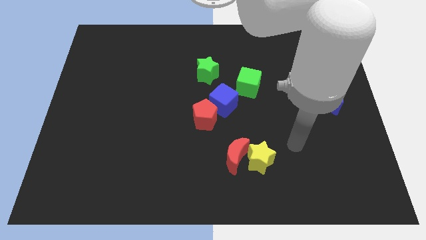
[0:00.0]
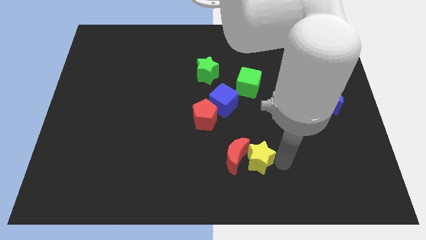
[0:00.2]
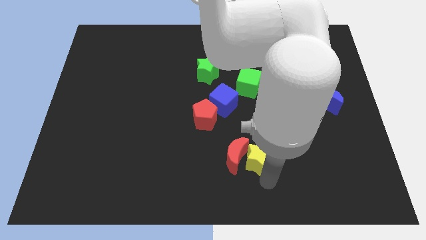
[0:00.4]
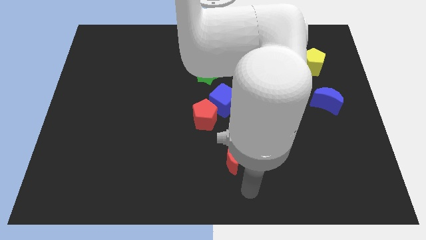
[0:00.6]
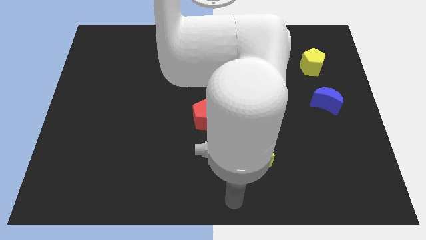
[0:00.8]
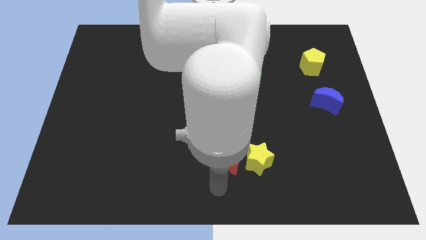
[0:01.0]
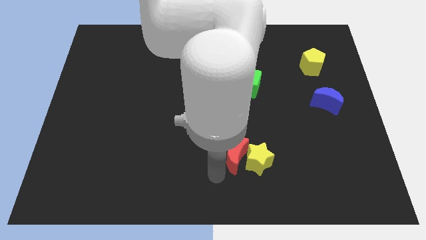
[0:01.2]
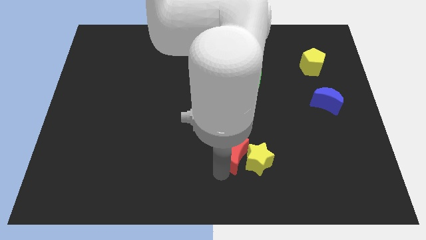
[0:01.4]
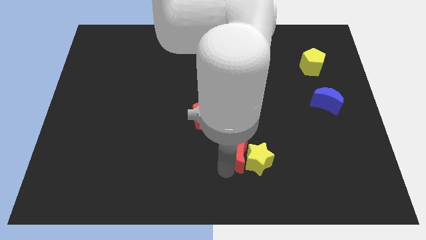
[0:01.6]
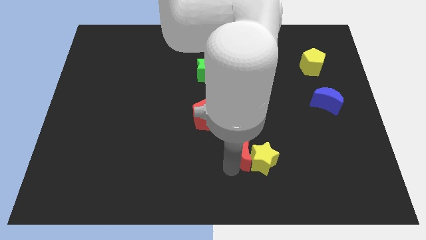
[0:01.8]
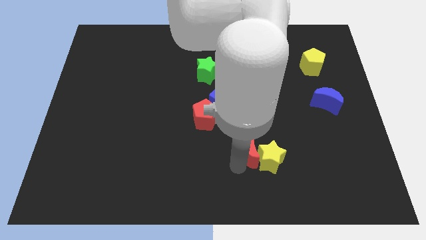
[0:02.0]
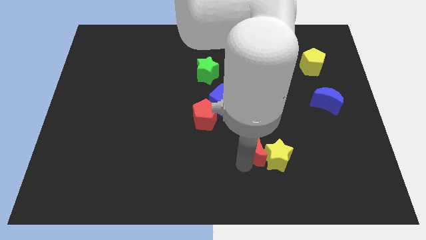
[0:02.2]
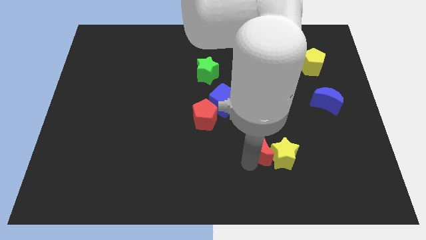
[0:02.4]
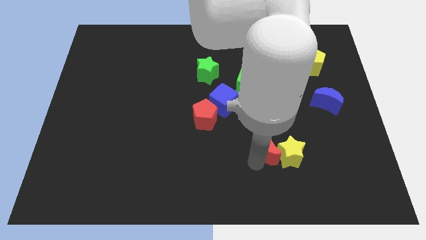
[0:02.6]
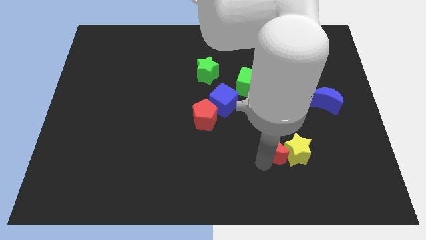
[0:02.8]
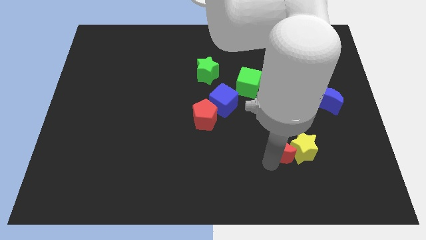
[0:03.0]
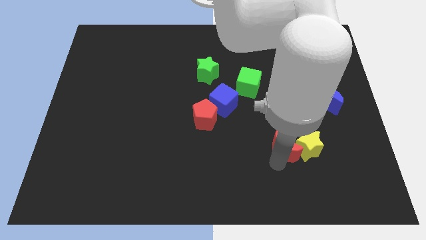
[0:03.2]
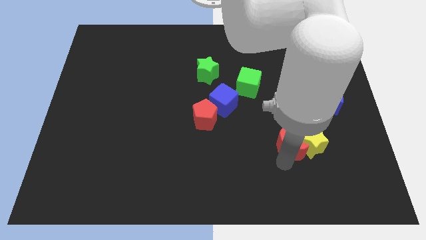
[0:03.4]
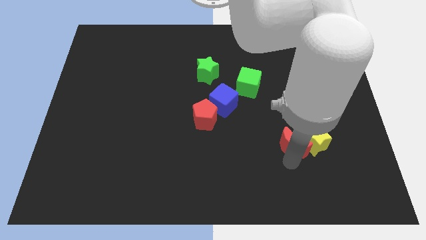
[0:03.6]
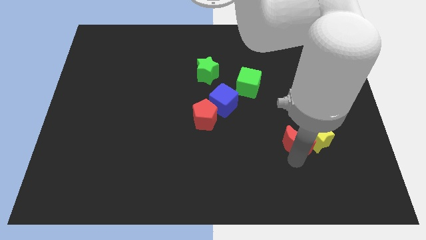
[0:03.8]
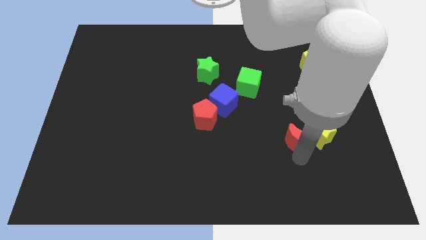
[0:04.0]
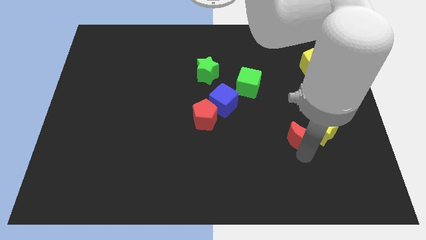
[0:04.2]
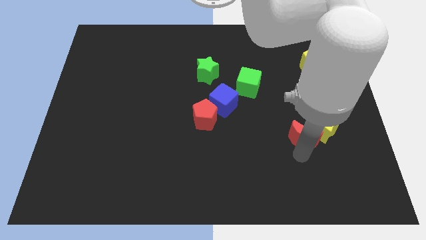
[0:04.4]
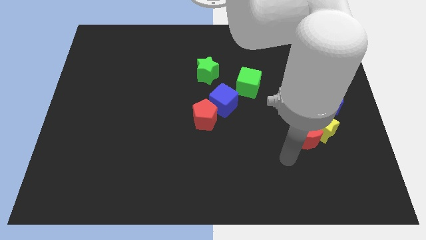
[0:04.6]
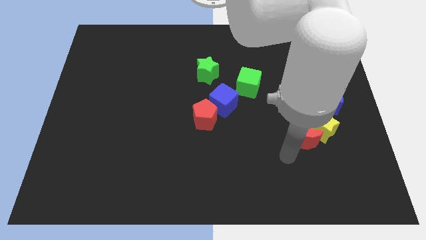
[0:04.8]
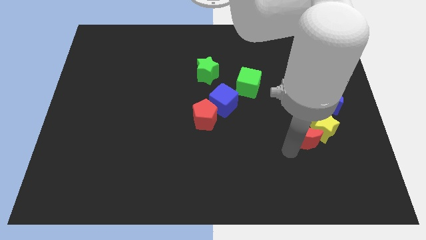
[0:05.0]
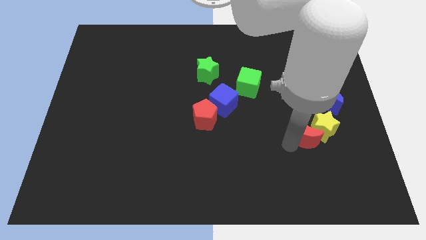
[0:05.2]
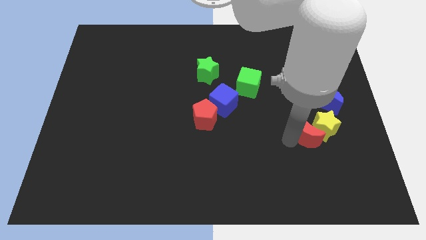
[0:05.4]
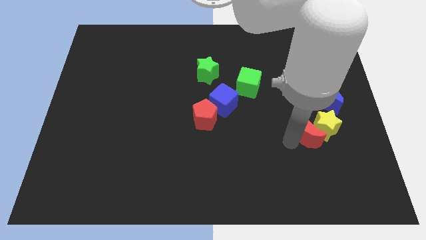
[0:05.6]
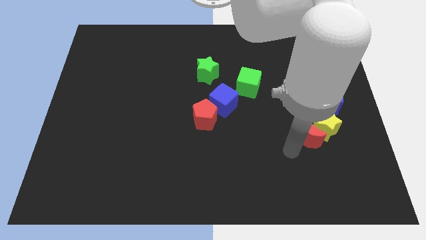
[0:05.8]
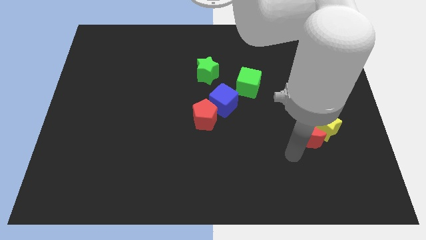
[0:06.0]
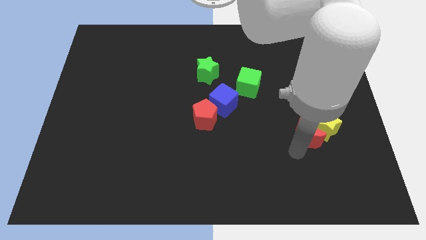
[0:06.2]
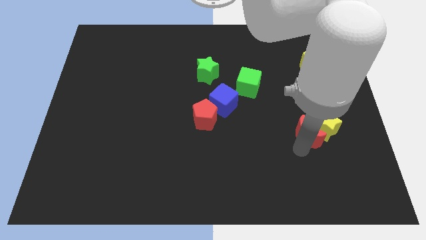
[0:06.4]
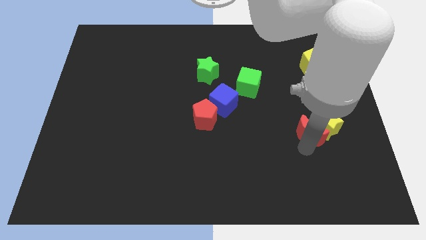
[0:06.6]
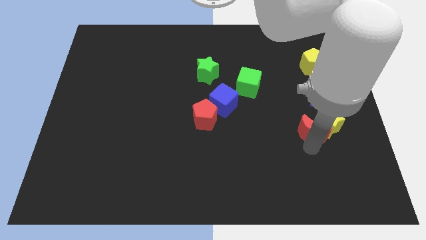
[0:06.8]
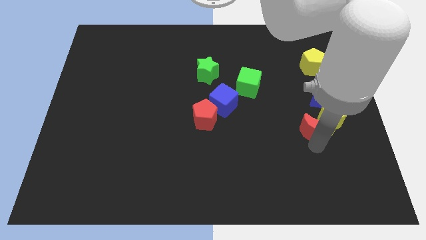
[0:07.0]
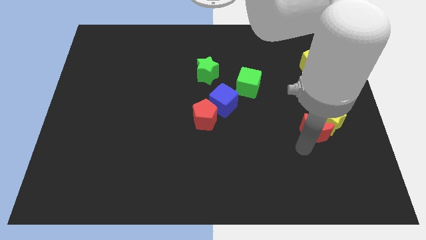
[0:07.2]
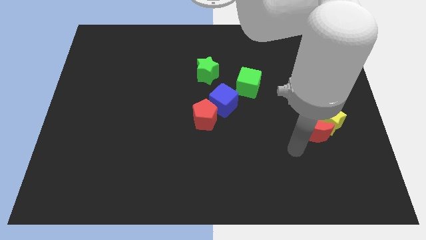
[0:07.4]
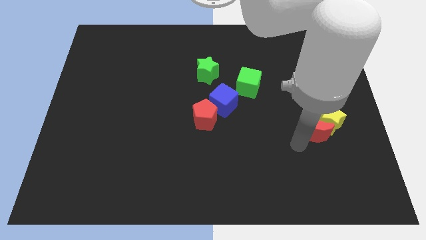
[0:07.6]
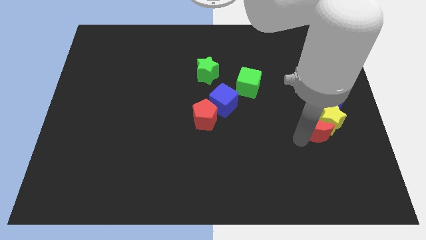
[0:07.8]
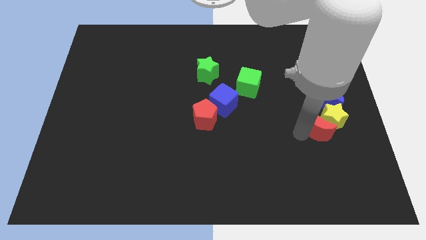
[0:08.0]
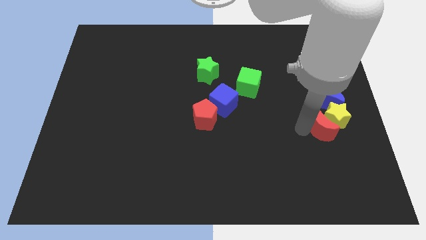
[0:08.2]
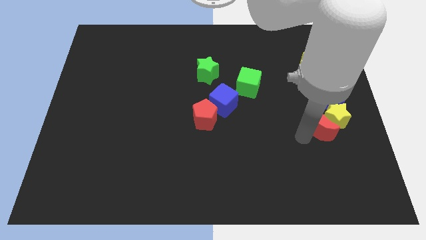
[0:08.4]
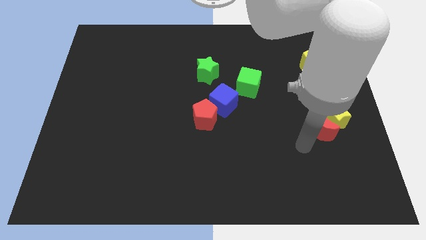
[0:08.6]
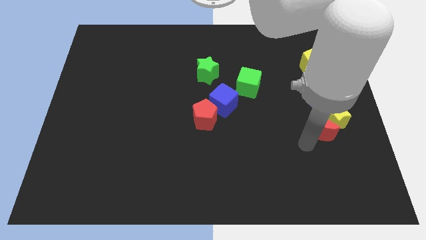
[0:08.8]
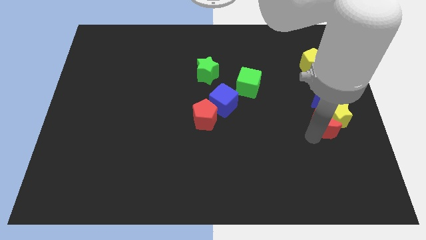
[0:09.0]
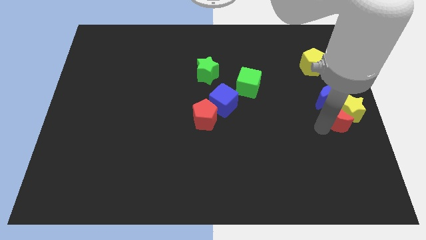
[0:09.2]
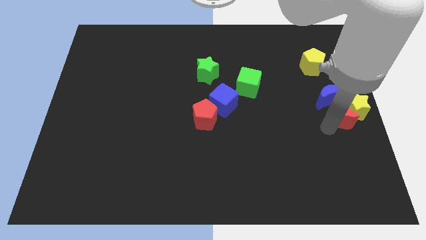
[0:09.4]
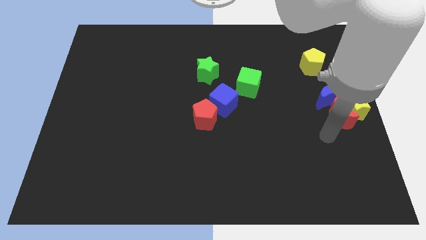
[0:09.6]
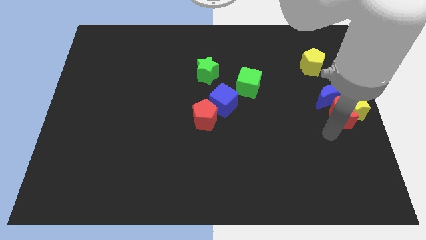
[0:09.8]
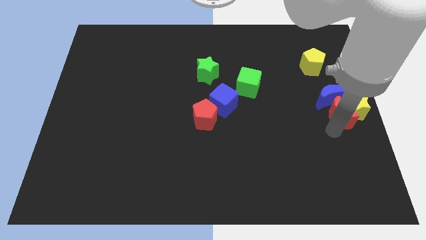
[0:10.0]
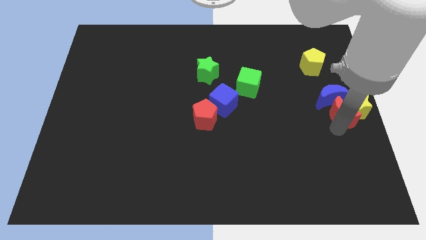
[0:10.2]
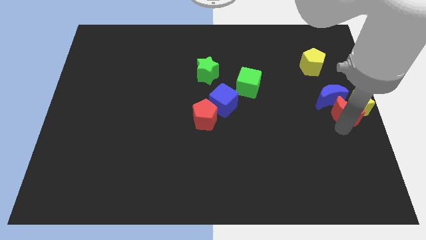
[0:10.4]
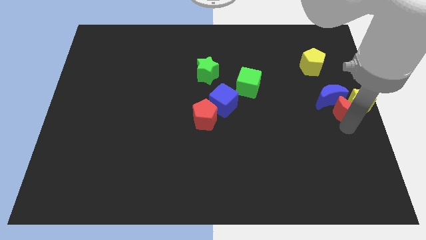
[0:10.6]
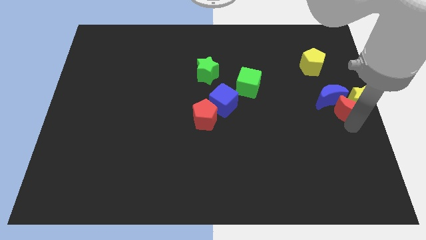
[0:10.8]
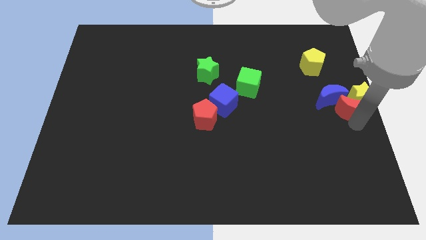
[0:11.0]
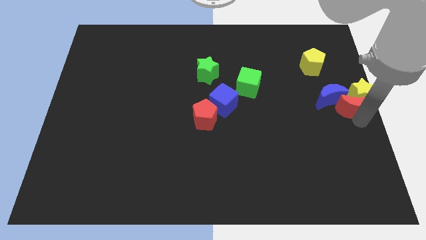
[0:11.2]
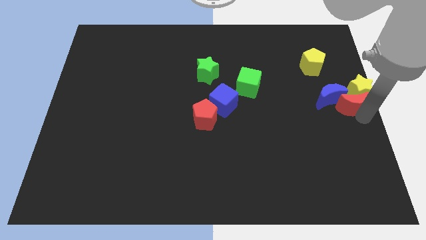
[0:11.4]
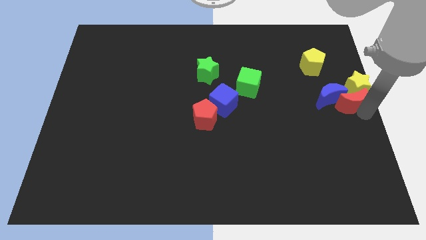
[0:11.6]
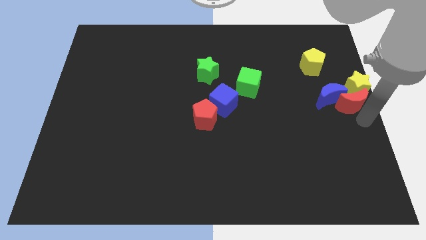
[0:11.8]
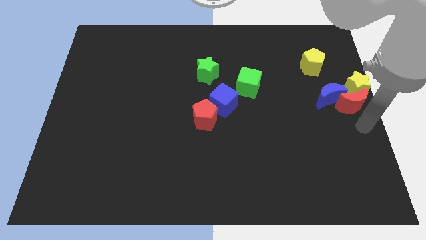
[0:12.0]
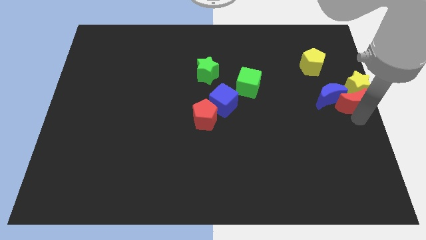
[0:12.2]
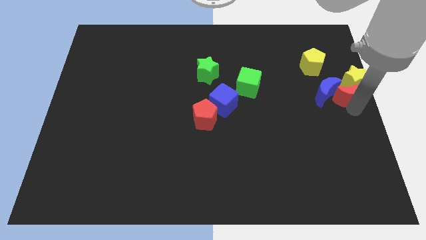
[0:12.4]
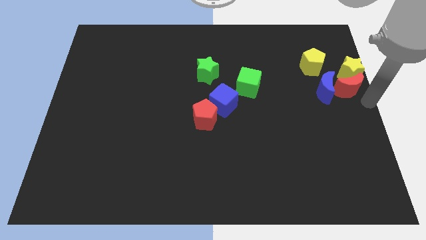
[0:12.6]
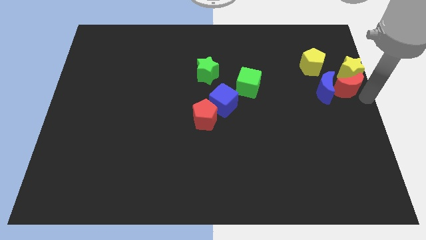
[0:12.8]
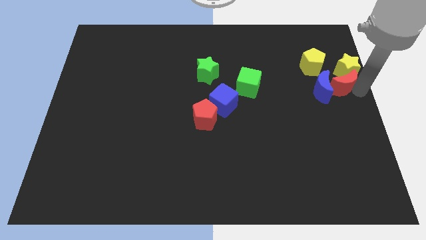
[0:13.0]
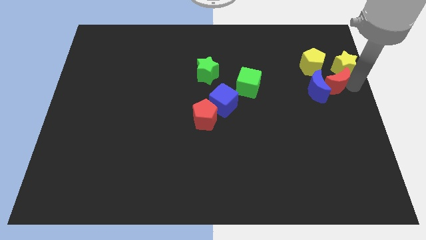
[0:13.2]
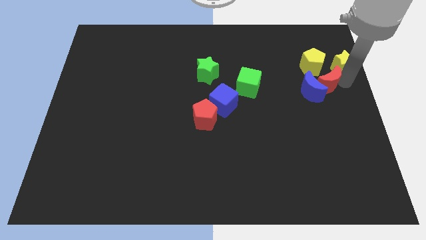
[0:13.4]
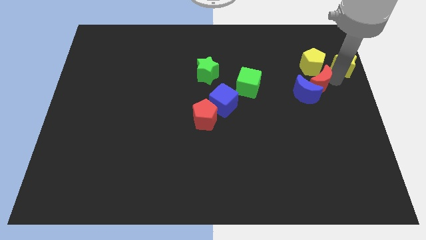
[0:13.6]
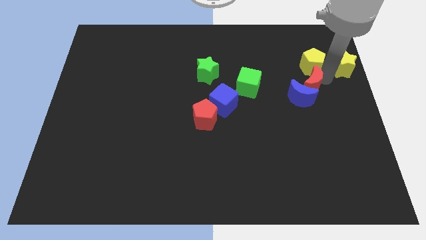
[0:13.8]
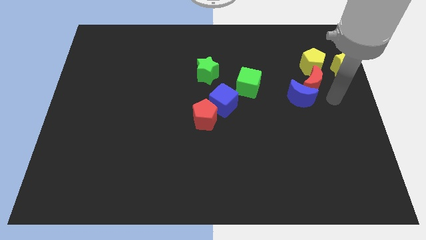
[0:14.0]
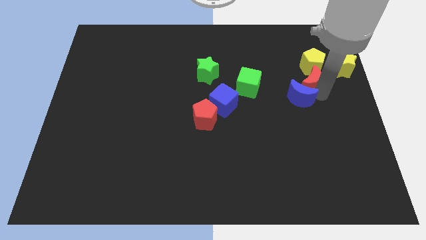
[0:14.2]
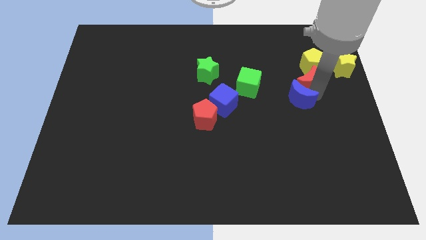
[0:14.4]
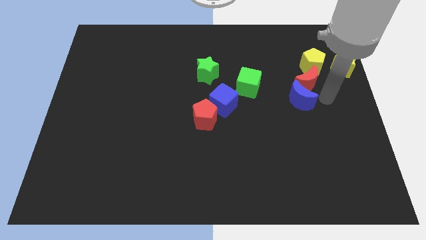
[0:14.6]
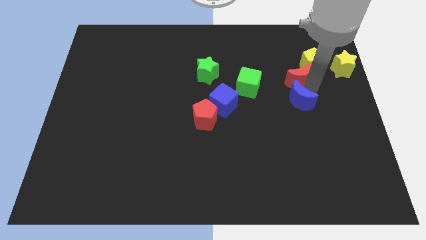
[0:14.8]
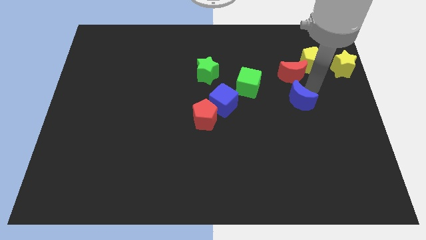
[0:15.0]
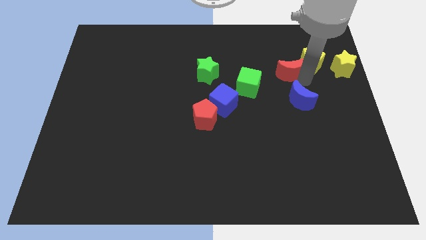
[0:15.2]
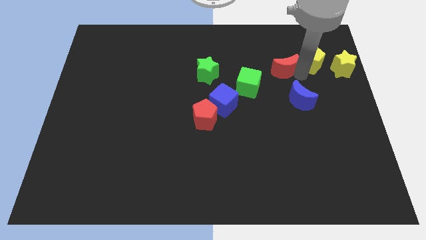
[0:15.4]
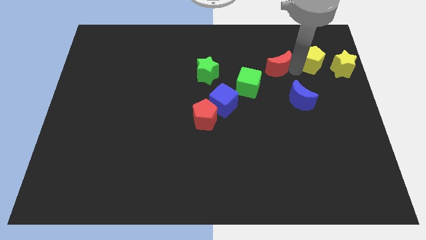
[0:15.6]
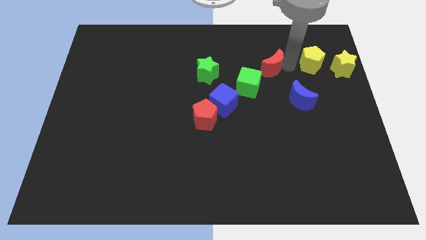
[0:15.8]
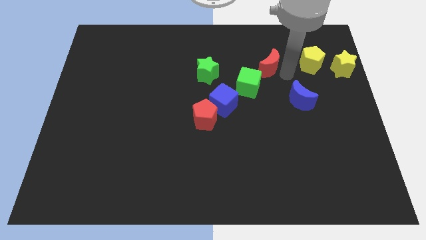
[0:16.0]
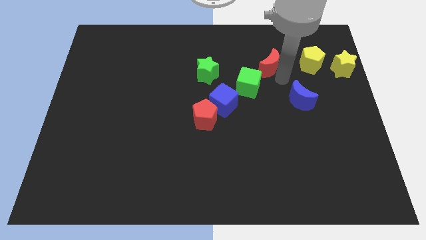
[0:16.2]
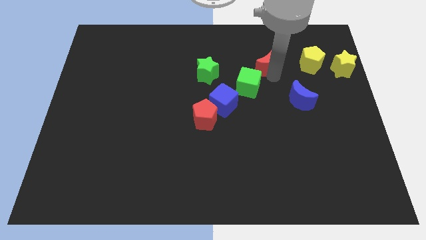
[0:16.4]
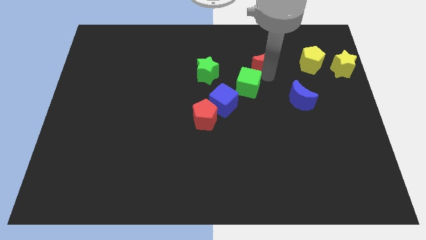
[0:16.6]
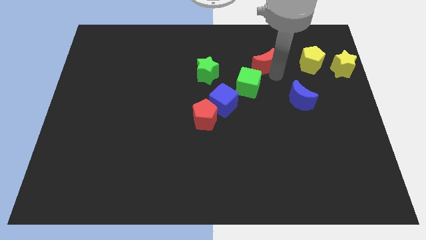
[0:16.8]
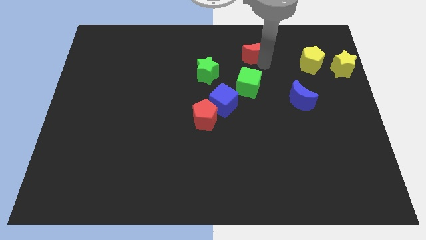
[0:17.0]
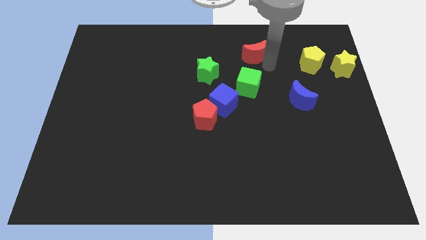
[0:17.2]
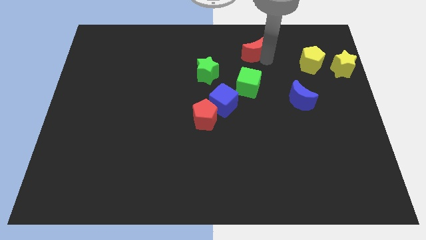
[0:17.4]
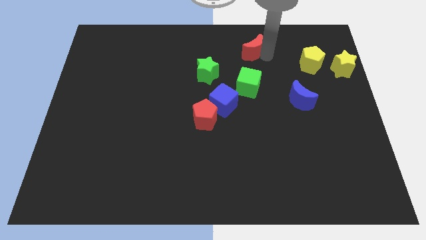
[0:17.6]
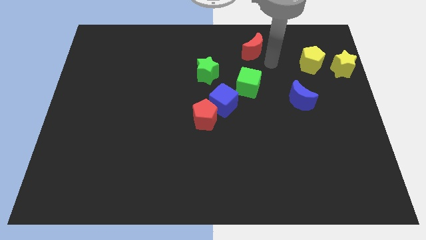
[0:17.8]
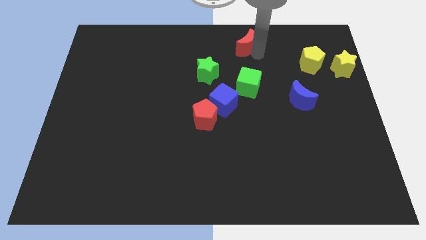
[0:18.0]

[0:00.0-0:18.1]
slide the red moon to the towards your base
